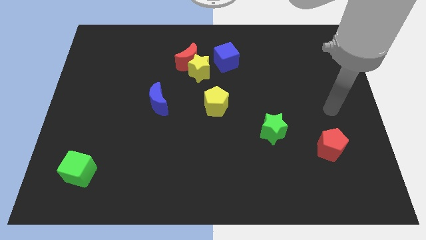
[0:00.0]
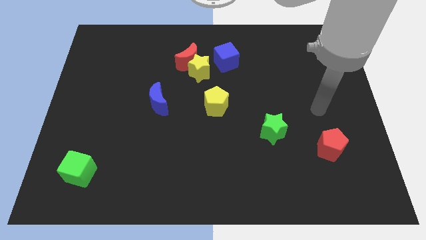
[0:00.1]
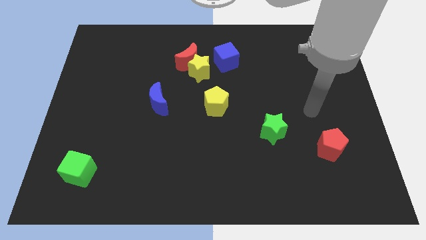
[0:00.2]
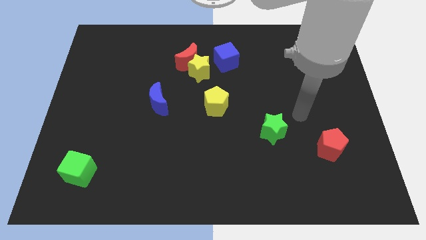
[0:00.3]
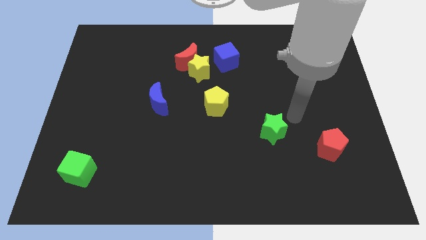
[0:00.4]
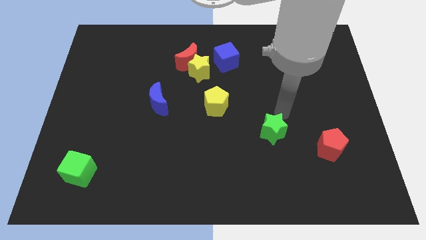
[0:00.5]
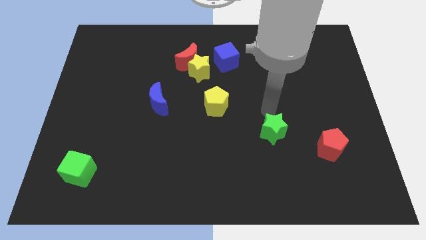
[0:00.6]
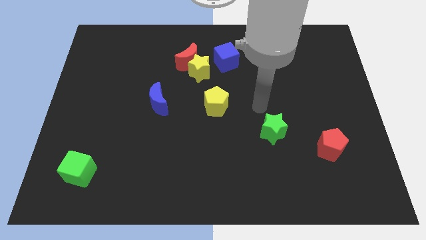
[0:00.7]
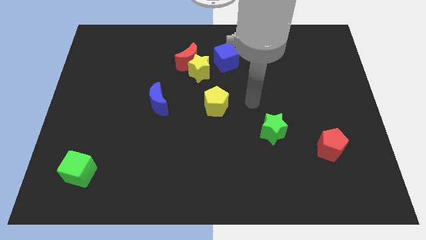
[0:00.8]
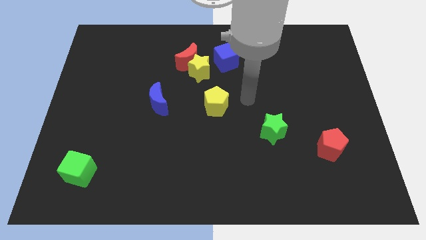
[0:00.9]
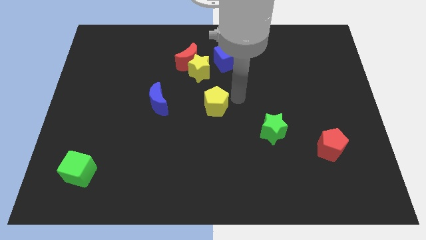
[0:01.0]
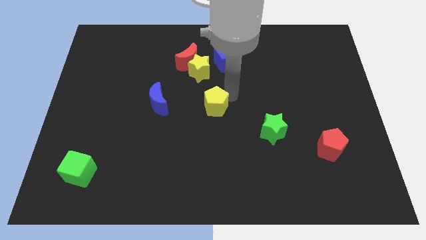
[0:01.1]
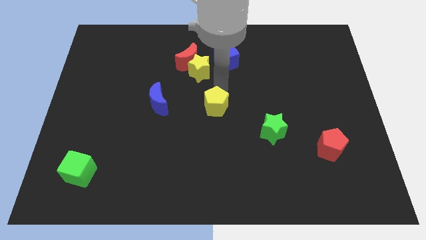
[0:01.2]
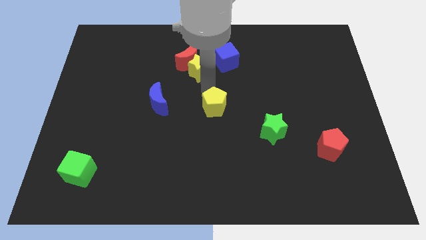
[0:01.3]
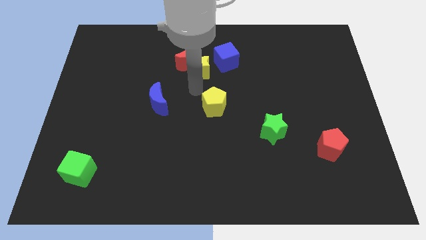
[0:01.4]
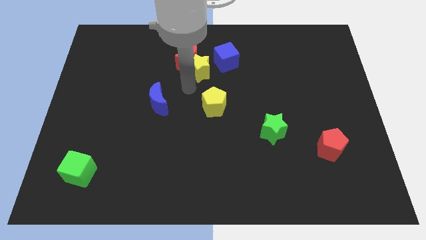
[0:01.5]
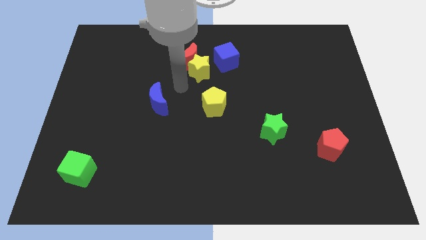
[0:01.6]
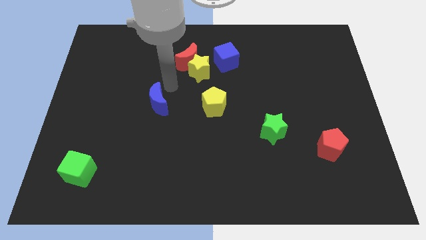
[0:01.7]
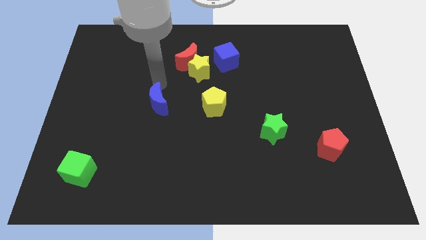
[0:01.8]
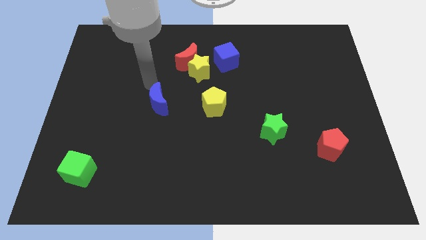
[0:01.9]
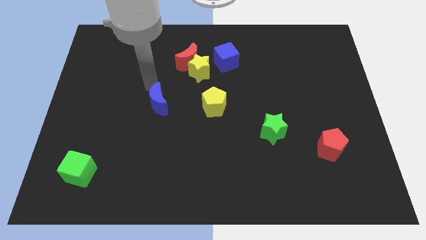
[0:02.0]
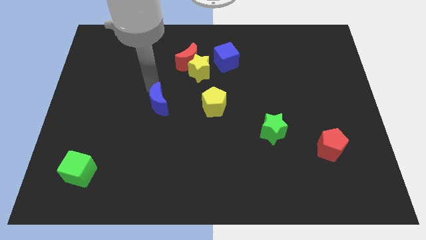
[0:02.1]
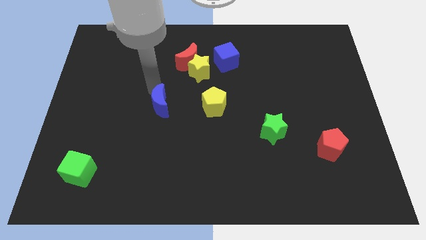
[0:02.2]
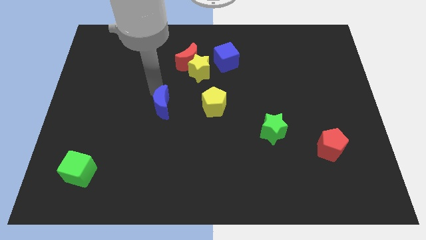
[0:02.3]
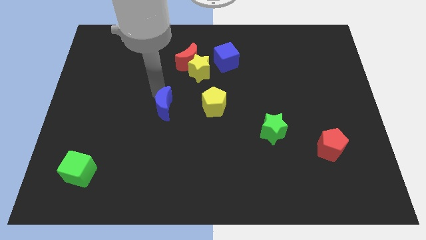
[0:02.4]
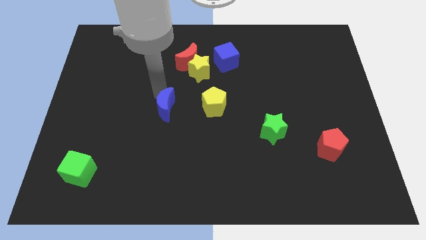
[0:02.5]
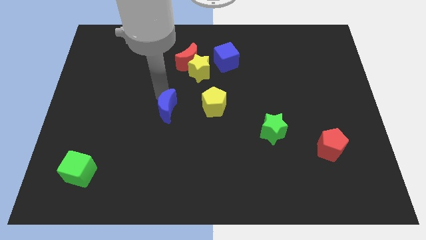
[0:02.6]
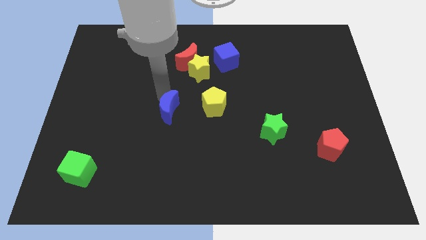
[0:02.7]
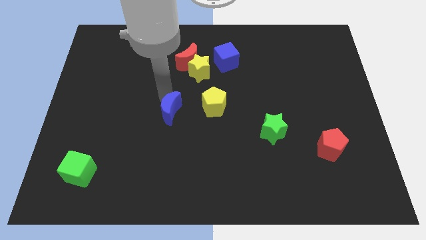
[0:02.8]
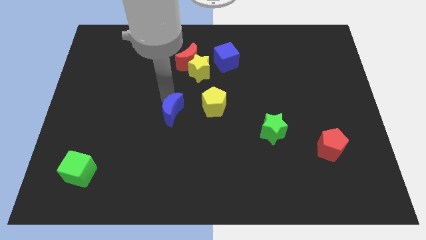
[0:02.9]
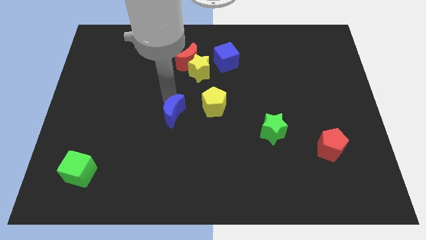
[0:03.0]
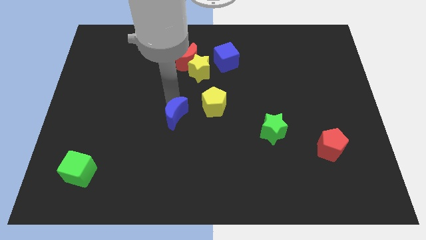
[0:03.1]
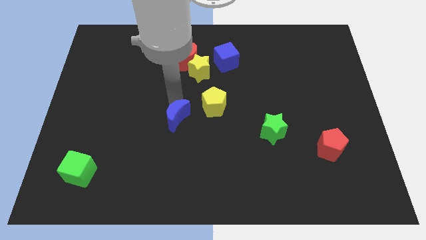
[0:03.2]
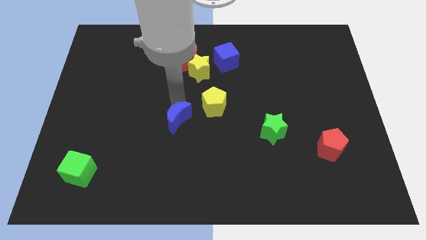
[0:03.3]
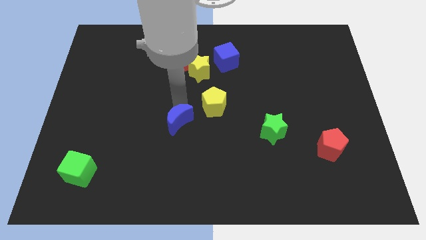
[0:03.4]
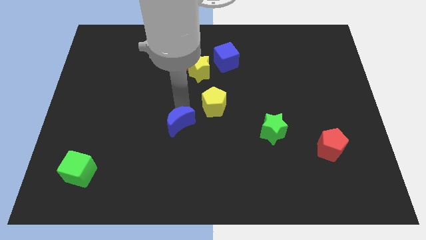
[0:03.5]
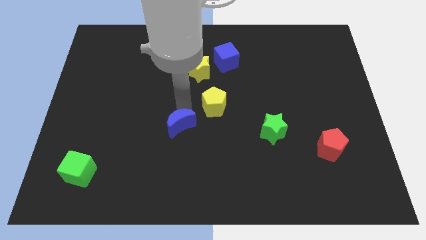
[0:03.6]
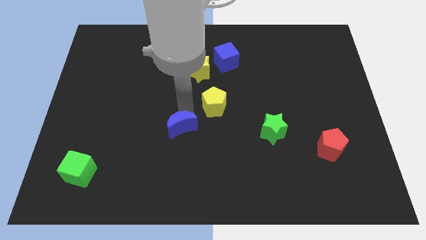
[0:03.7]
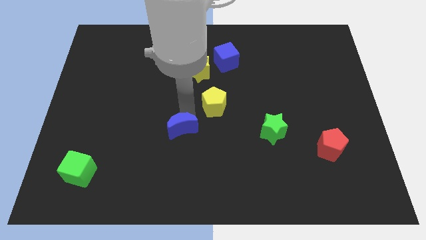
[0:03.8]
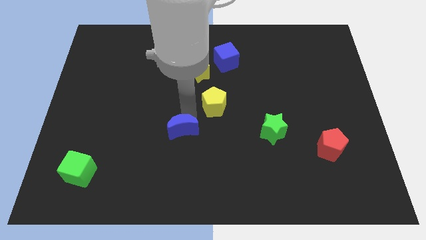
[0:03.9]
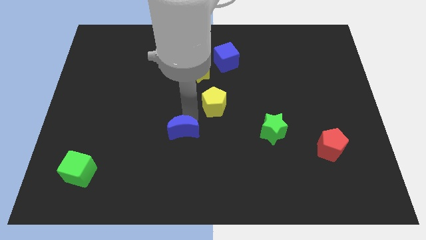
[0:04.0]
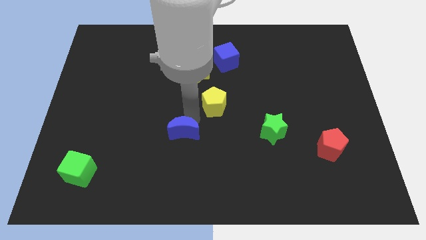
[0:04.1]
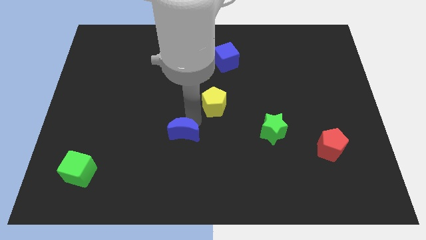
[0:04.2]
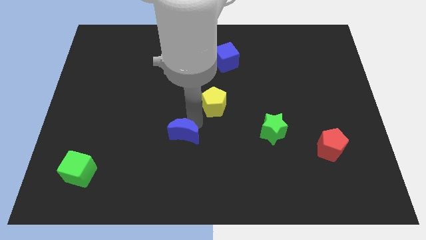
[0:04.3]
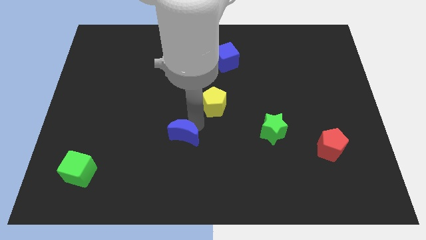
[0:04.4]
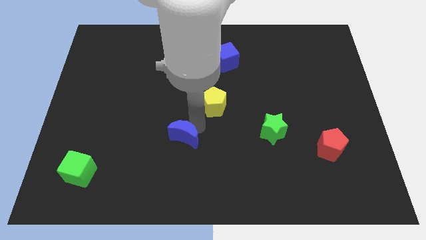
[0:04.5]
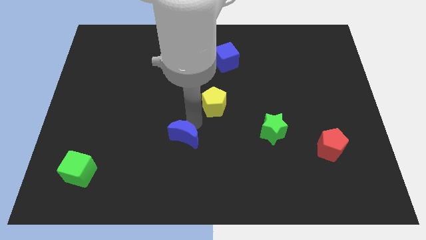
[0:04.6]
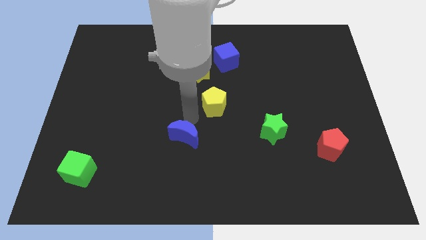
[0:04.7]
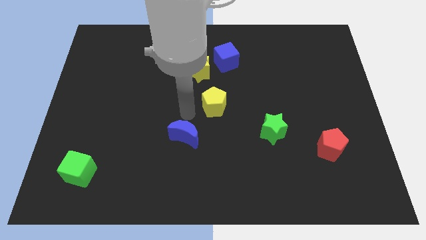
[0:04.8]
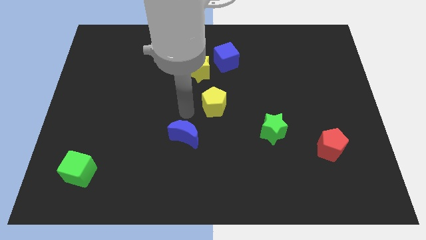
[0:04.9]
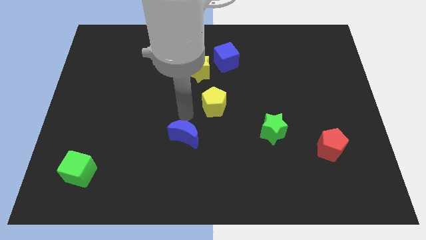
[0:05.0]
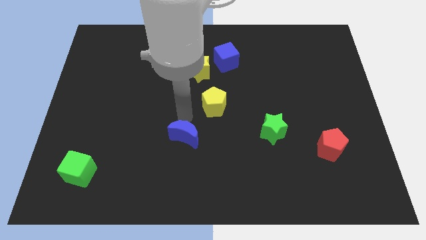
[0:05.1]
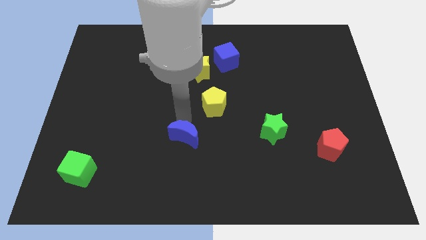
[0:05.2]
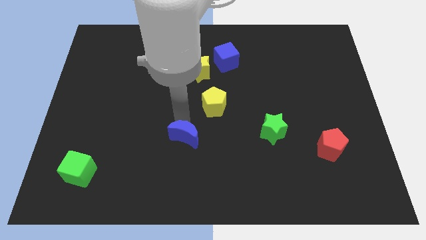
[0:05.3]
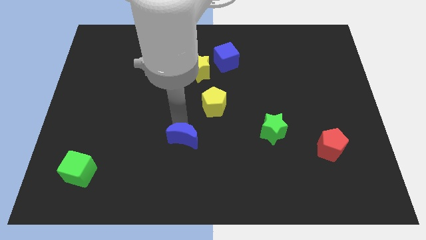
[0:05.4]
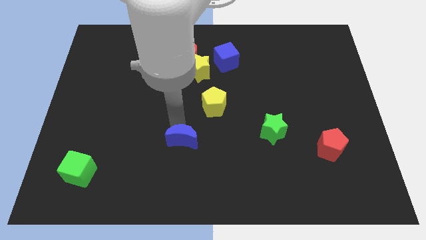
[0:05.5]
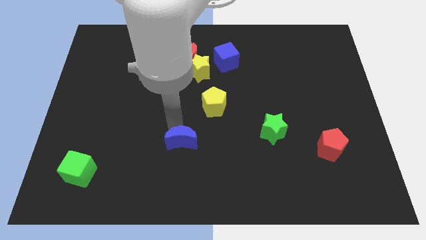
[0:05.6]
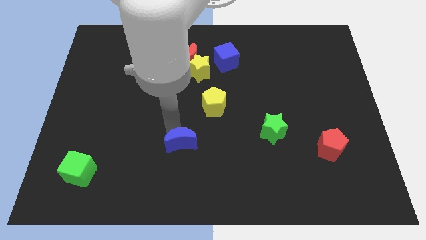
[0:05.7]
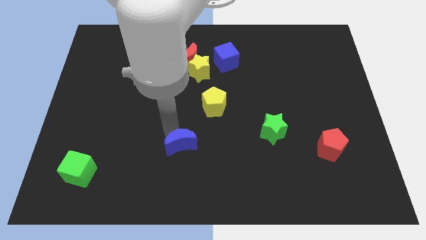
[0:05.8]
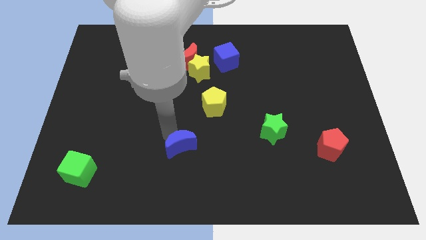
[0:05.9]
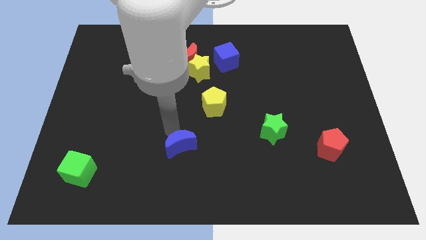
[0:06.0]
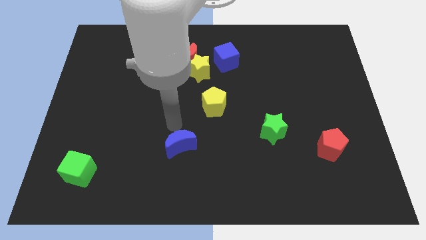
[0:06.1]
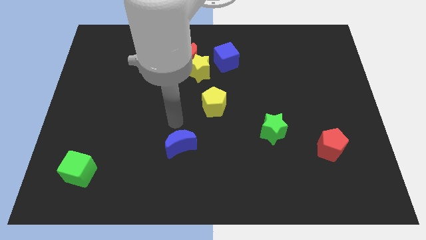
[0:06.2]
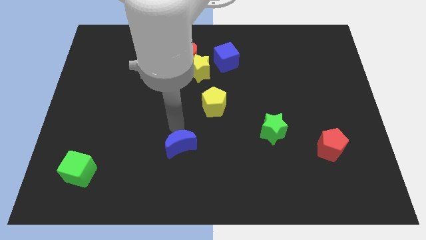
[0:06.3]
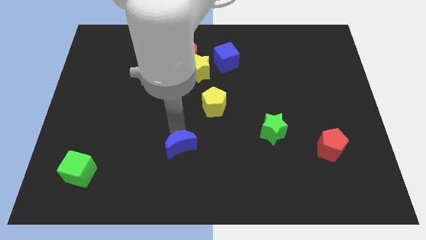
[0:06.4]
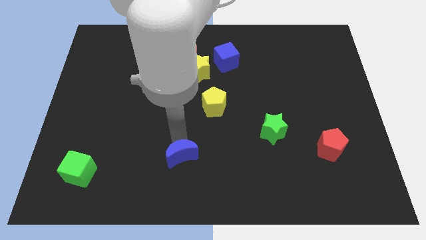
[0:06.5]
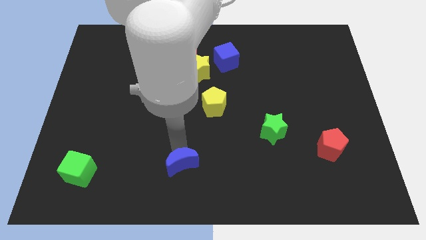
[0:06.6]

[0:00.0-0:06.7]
move the blue moon to the bottom side

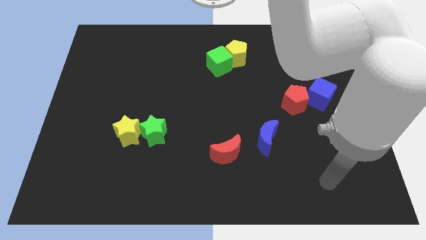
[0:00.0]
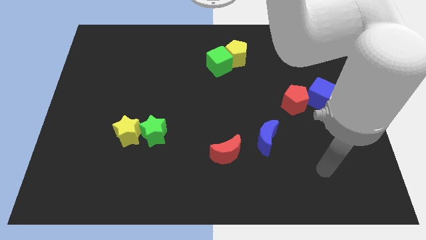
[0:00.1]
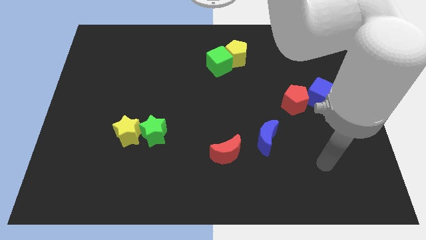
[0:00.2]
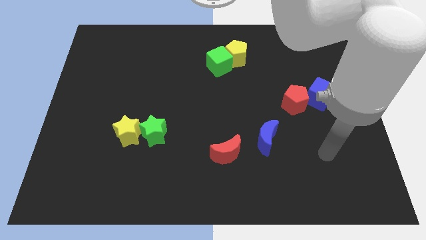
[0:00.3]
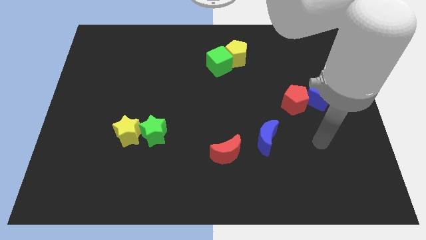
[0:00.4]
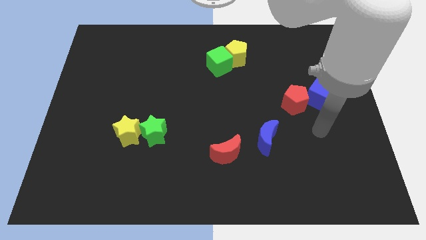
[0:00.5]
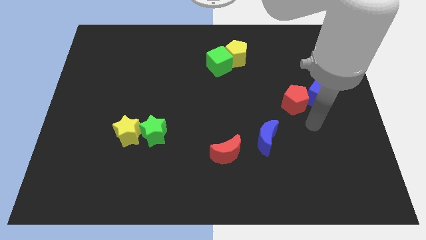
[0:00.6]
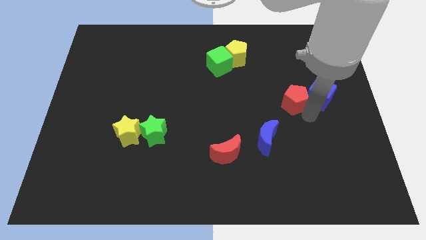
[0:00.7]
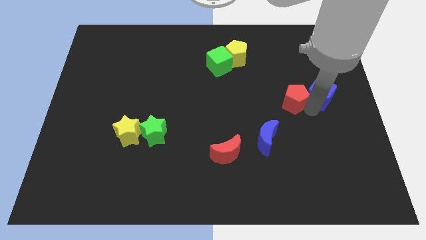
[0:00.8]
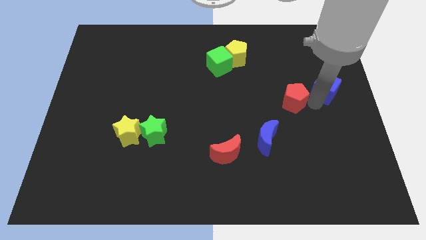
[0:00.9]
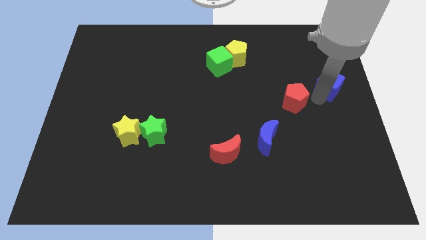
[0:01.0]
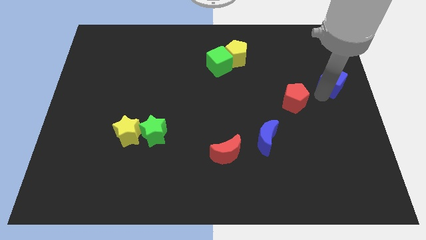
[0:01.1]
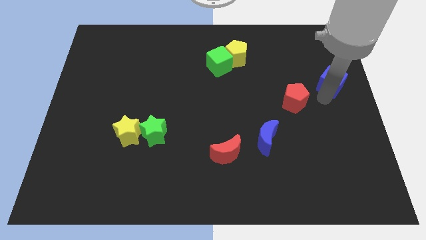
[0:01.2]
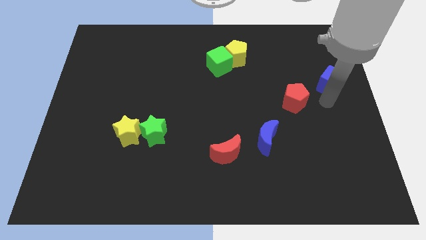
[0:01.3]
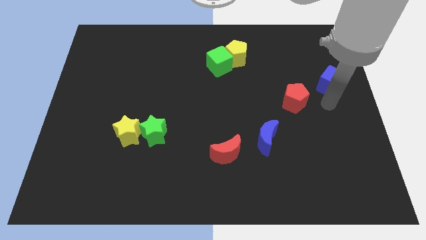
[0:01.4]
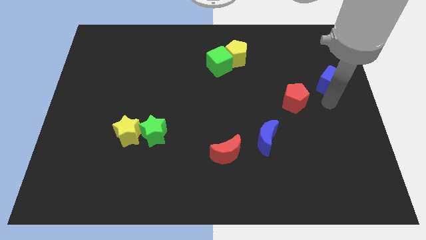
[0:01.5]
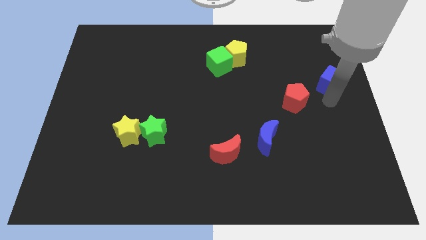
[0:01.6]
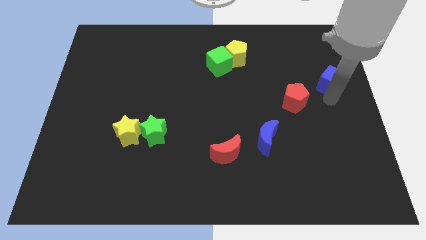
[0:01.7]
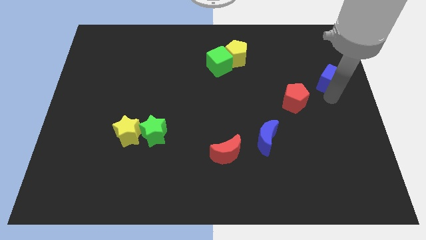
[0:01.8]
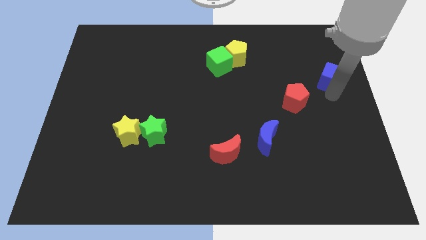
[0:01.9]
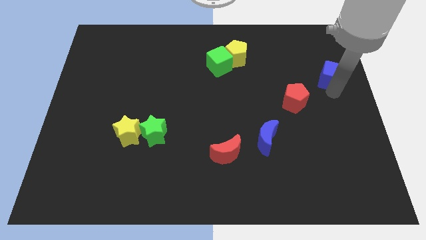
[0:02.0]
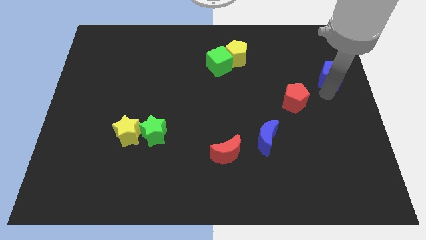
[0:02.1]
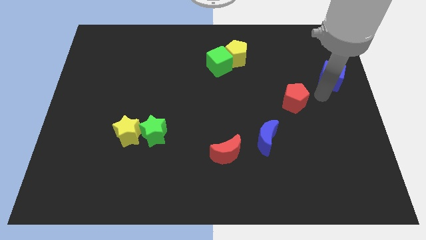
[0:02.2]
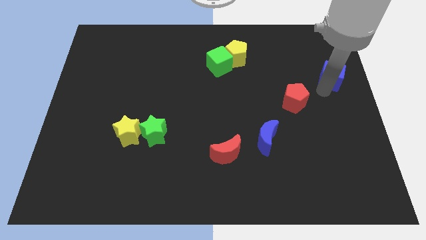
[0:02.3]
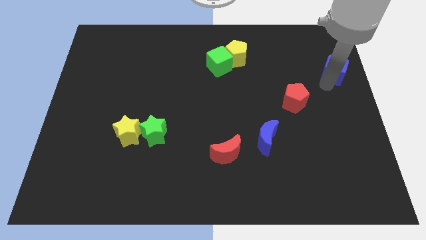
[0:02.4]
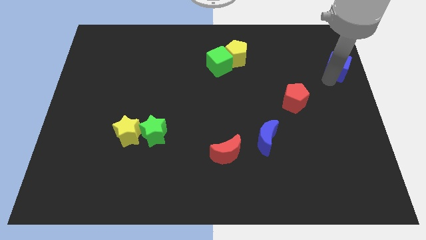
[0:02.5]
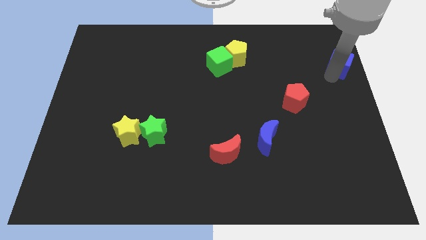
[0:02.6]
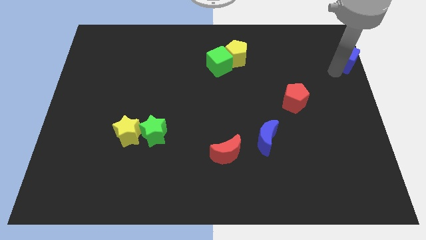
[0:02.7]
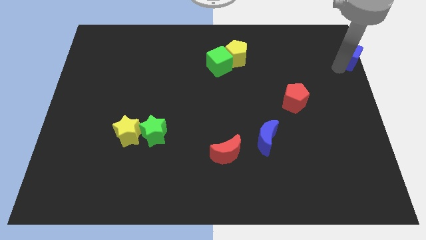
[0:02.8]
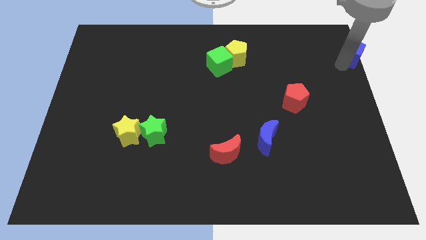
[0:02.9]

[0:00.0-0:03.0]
put the blue cube to the top right
